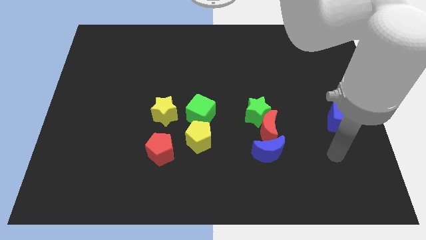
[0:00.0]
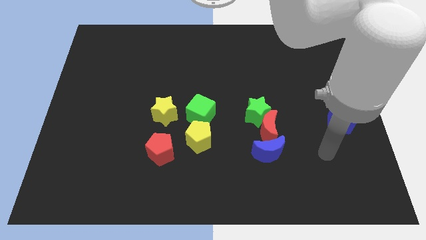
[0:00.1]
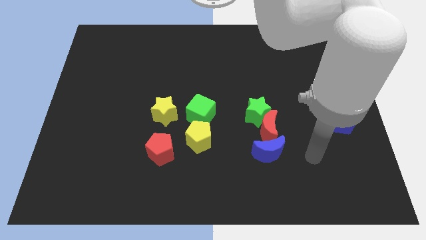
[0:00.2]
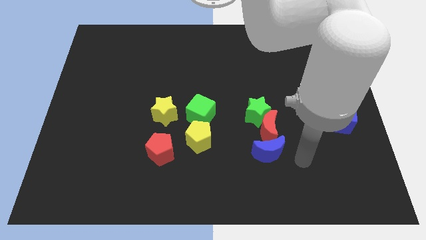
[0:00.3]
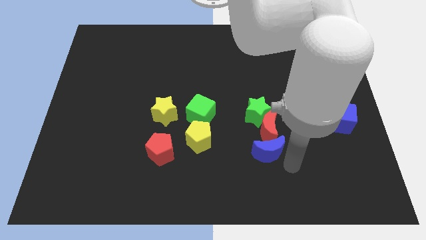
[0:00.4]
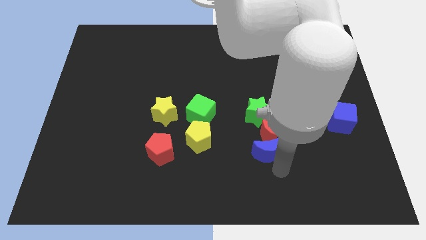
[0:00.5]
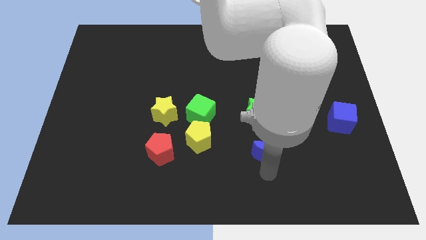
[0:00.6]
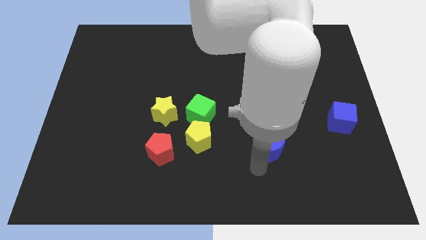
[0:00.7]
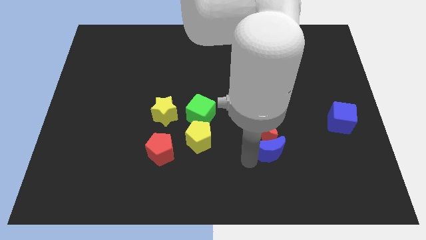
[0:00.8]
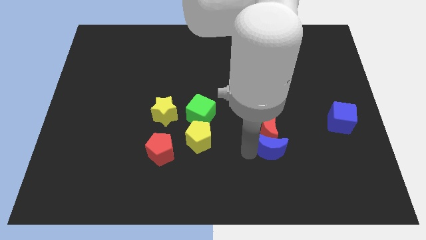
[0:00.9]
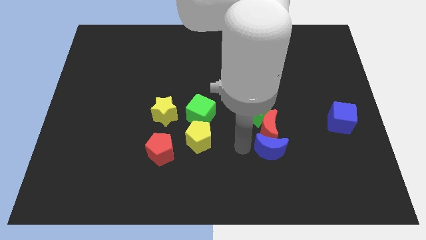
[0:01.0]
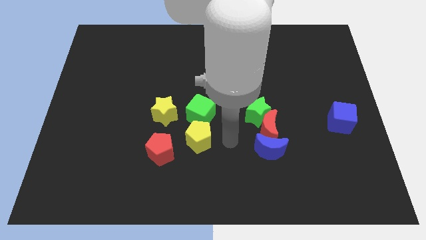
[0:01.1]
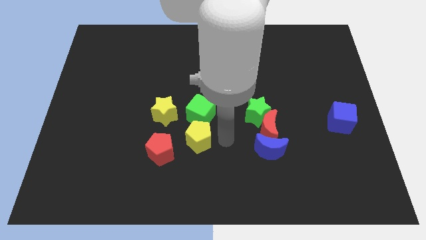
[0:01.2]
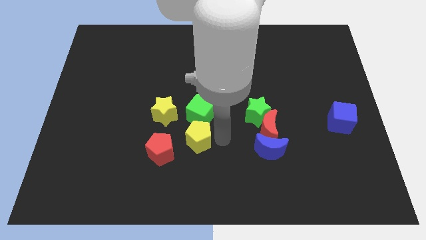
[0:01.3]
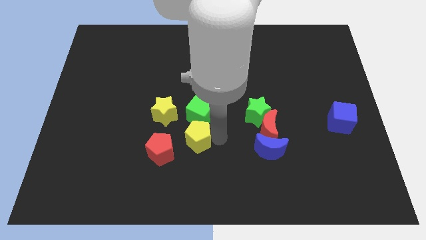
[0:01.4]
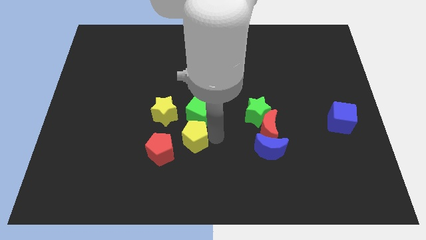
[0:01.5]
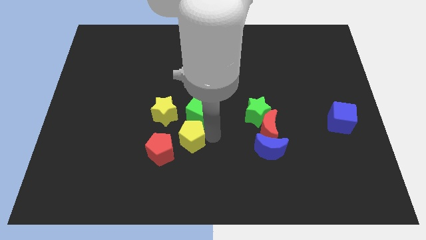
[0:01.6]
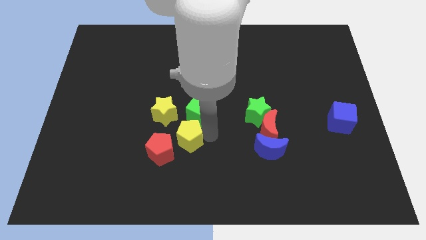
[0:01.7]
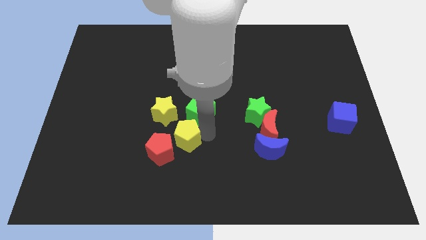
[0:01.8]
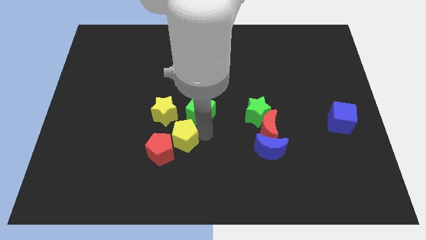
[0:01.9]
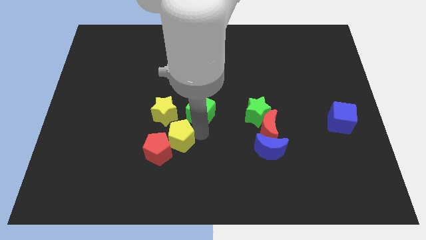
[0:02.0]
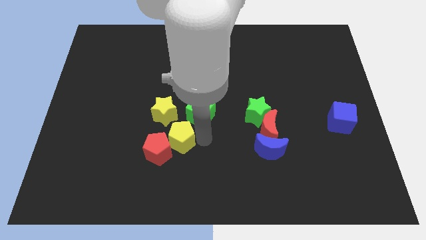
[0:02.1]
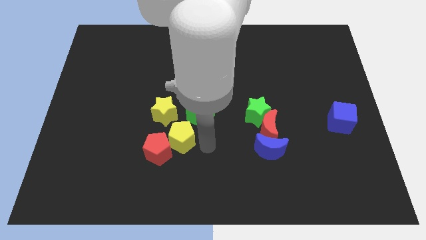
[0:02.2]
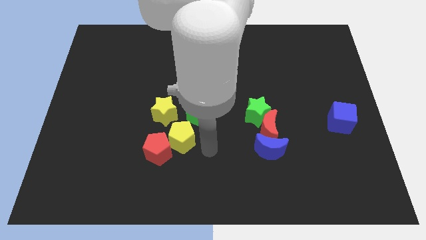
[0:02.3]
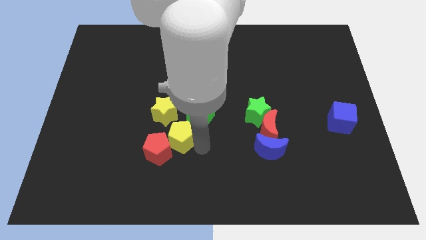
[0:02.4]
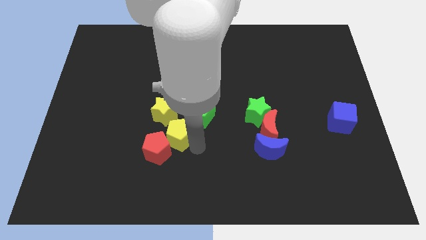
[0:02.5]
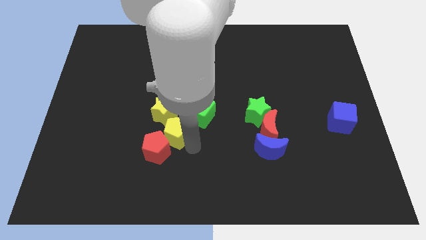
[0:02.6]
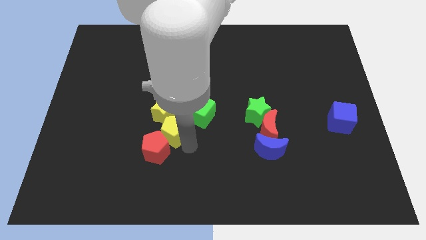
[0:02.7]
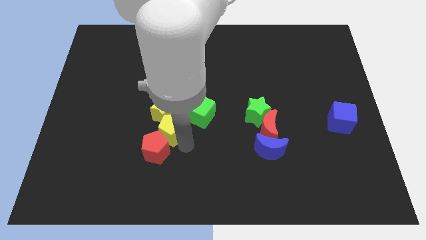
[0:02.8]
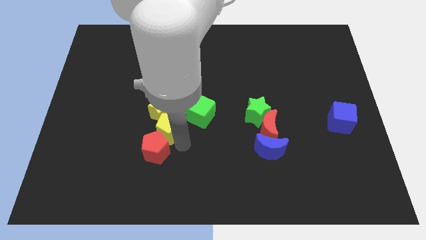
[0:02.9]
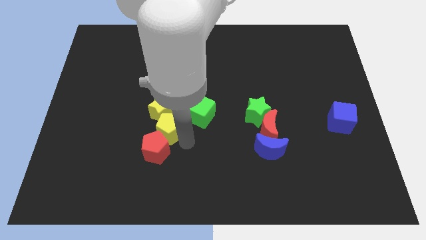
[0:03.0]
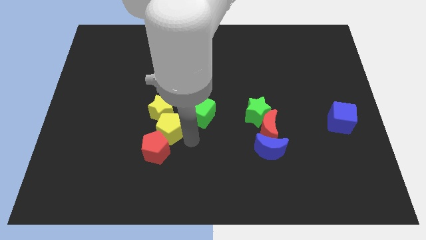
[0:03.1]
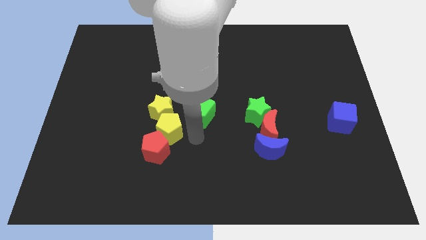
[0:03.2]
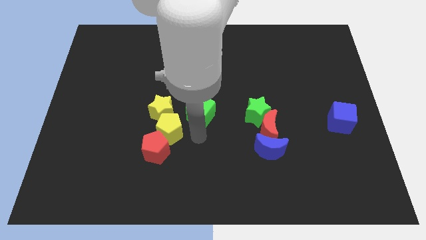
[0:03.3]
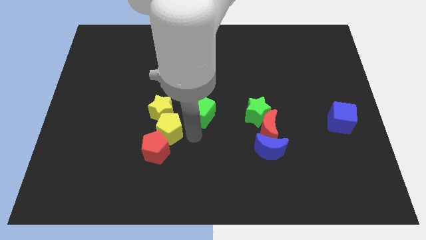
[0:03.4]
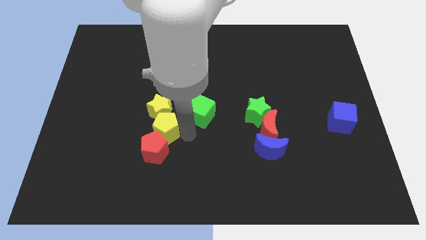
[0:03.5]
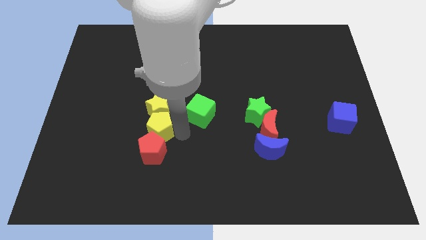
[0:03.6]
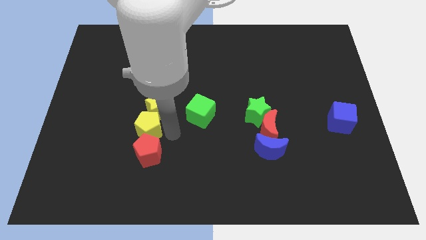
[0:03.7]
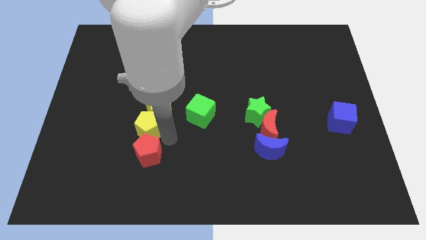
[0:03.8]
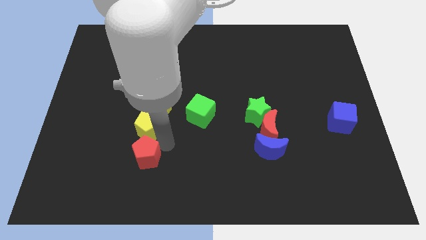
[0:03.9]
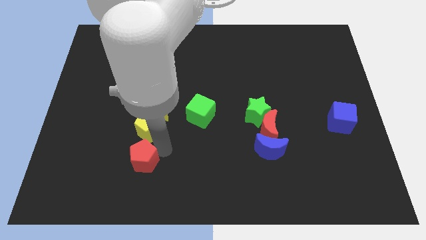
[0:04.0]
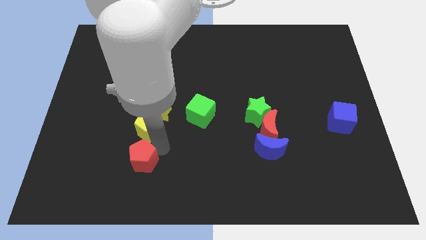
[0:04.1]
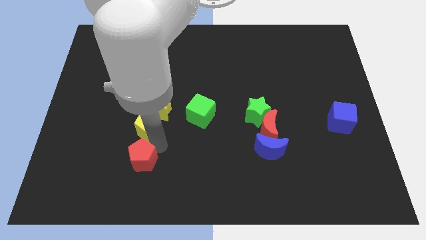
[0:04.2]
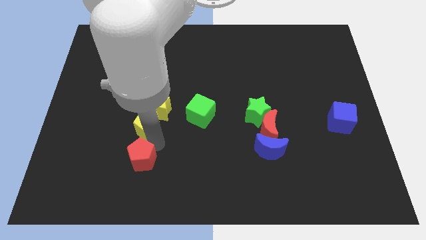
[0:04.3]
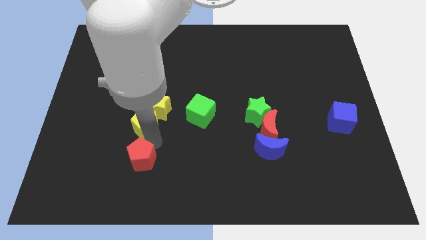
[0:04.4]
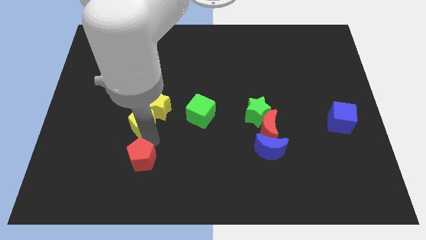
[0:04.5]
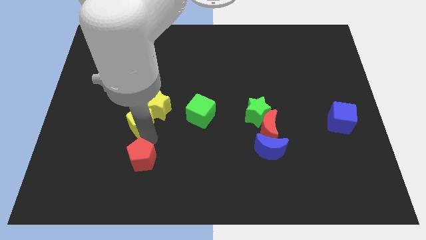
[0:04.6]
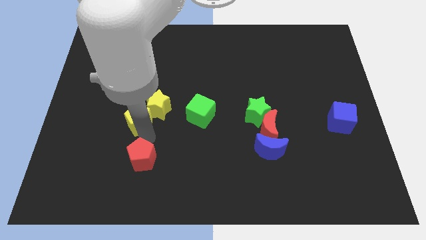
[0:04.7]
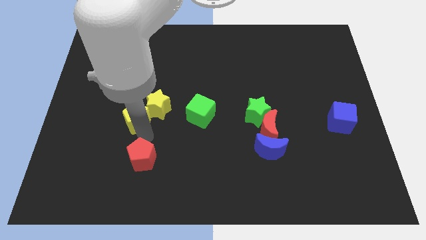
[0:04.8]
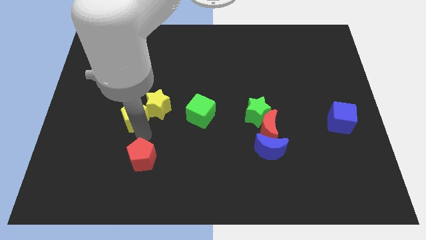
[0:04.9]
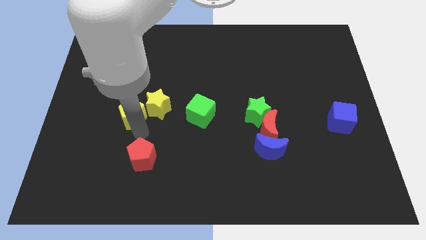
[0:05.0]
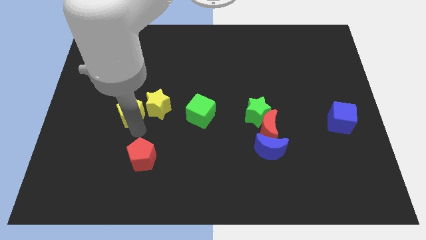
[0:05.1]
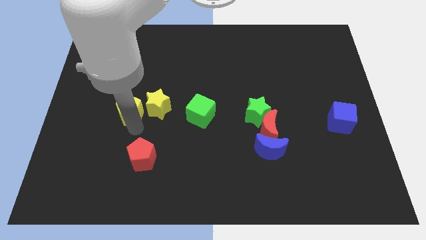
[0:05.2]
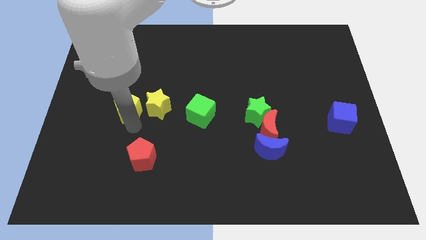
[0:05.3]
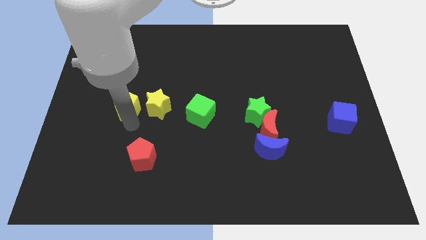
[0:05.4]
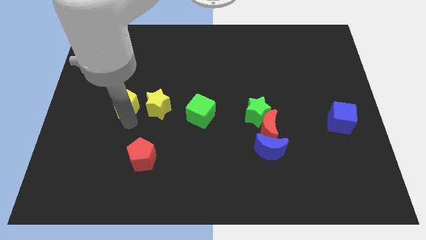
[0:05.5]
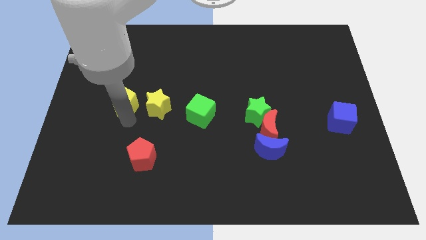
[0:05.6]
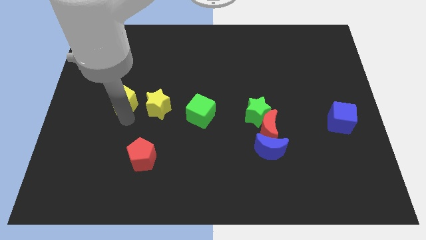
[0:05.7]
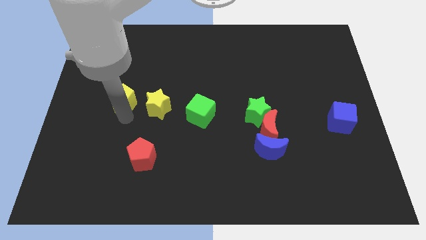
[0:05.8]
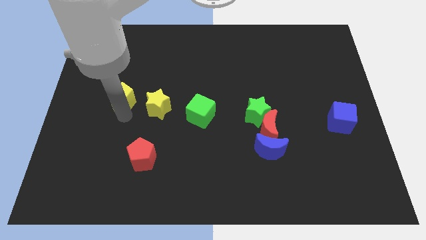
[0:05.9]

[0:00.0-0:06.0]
slide the yellow pentagon upwards and then to the left

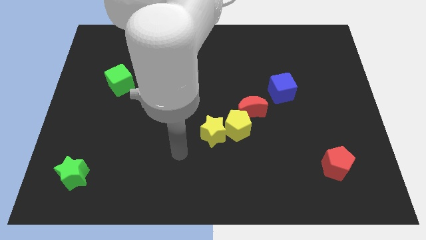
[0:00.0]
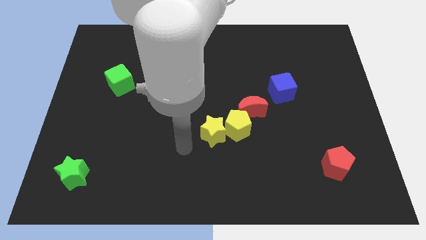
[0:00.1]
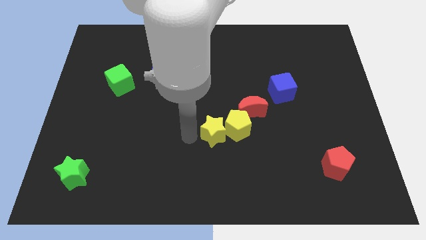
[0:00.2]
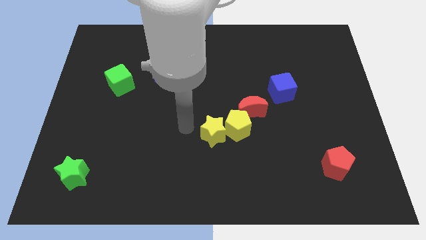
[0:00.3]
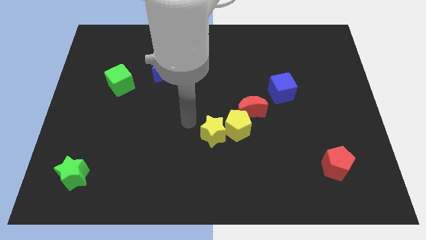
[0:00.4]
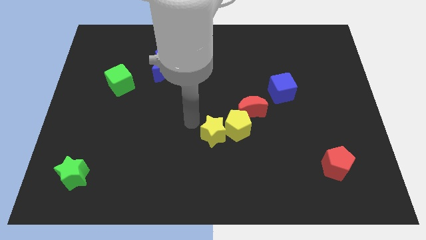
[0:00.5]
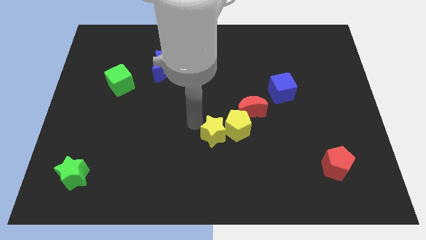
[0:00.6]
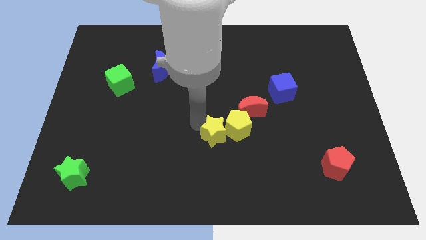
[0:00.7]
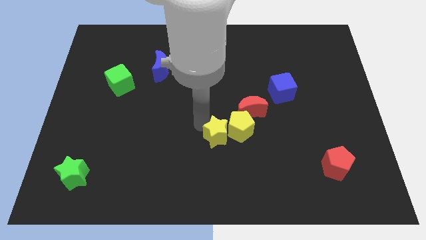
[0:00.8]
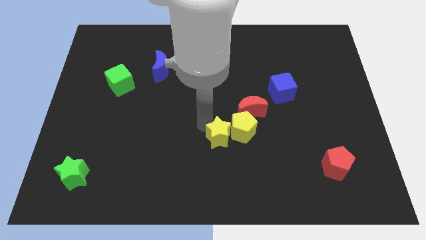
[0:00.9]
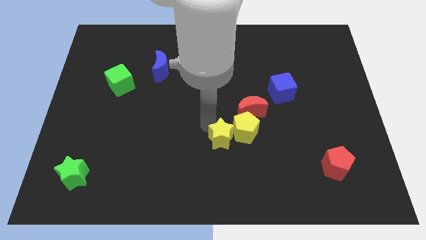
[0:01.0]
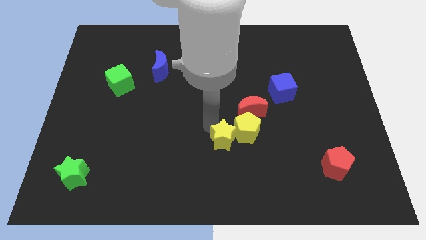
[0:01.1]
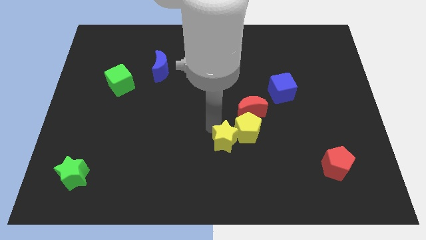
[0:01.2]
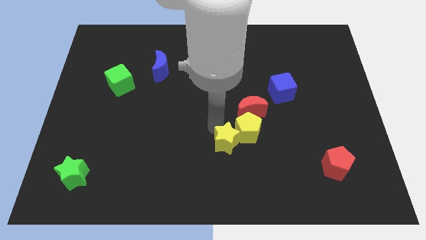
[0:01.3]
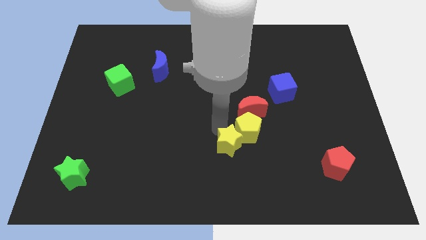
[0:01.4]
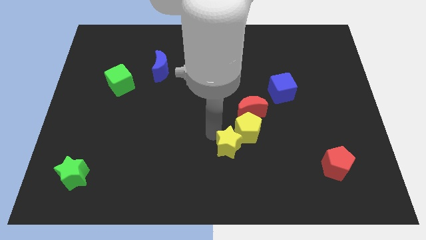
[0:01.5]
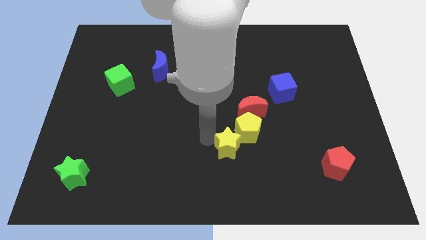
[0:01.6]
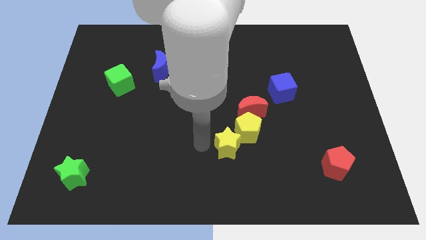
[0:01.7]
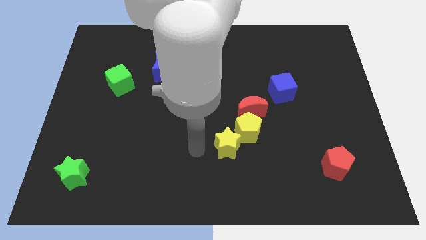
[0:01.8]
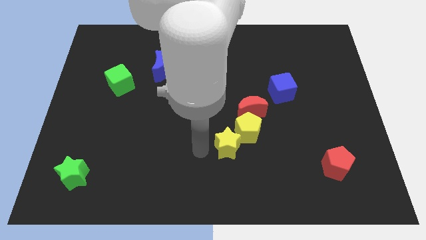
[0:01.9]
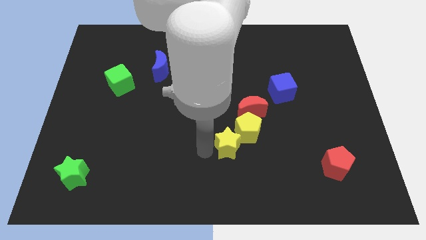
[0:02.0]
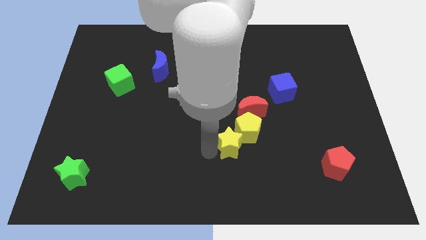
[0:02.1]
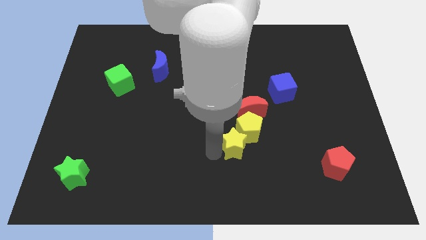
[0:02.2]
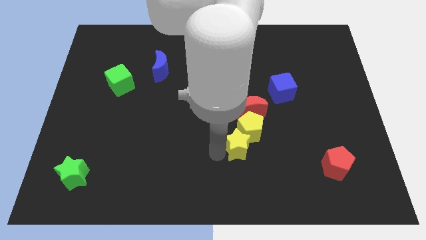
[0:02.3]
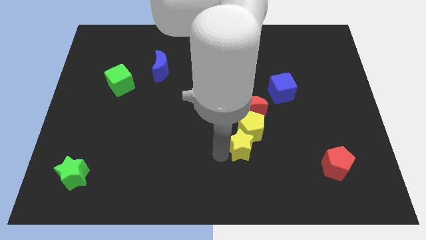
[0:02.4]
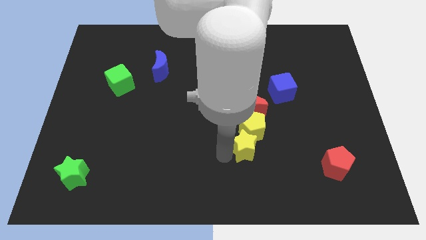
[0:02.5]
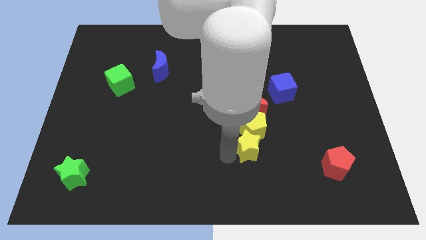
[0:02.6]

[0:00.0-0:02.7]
push the yellow star somewhat right
